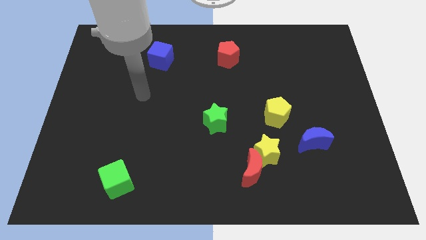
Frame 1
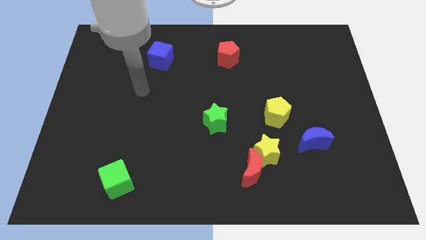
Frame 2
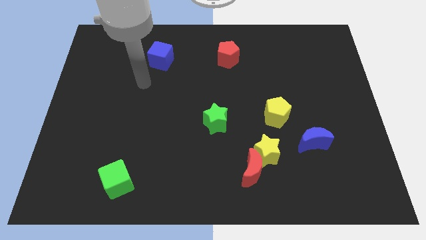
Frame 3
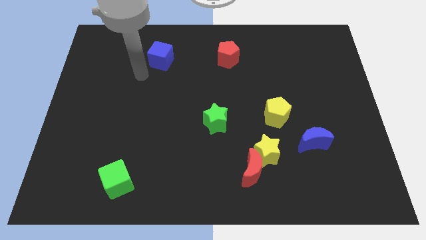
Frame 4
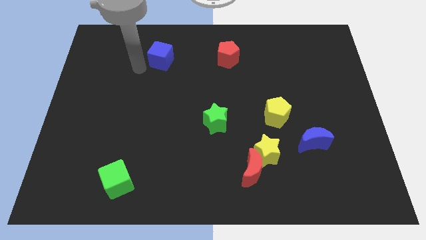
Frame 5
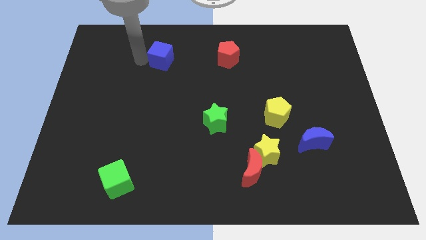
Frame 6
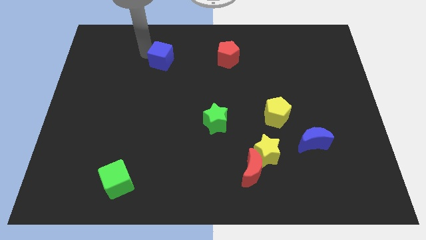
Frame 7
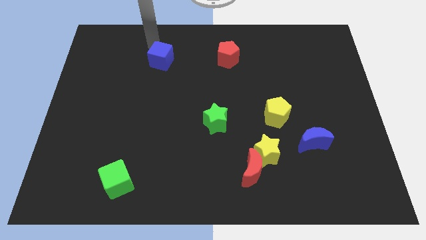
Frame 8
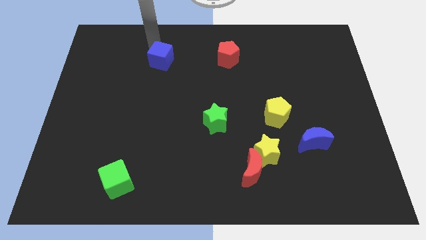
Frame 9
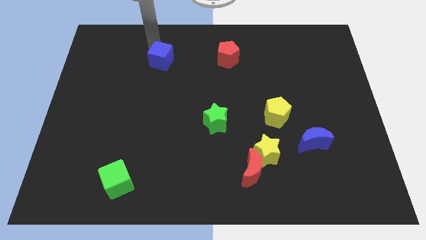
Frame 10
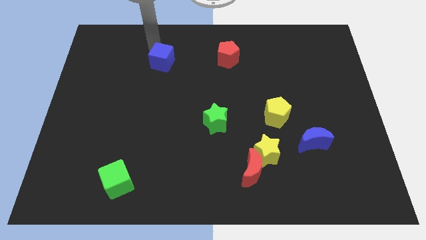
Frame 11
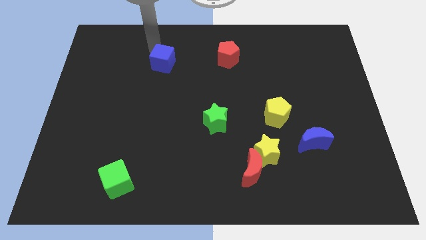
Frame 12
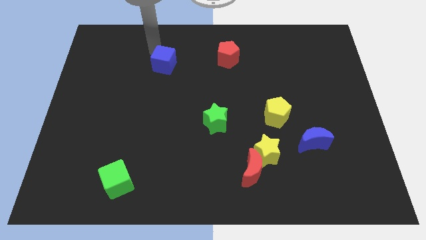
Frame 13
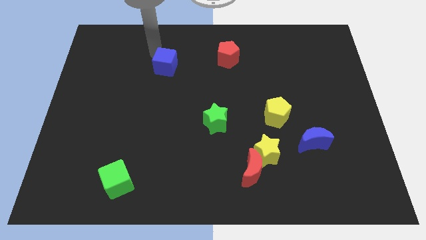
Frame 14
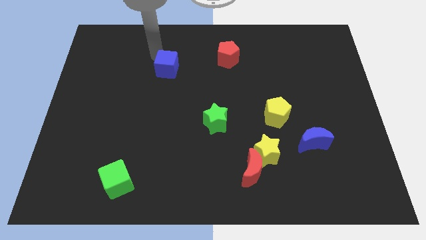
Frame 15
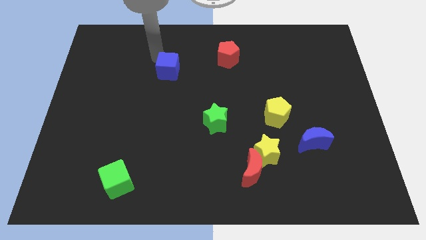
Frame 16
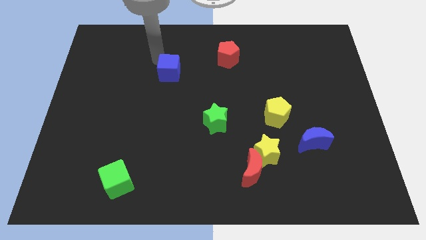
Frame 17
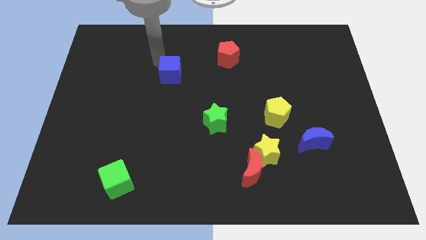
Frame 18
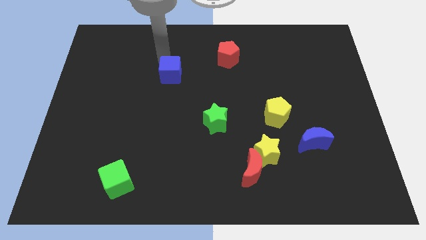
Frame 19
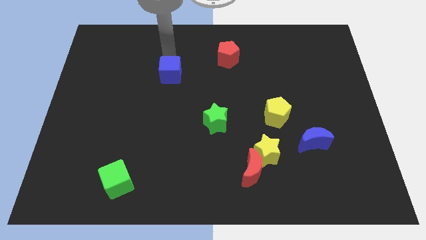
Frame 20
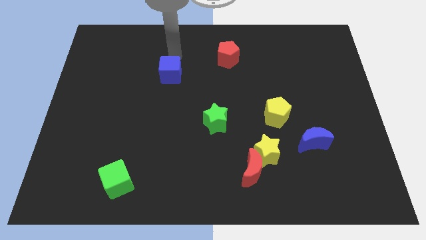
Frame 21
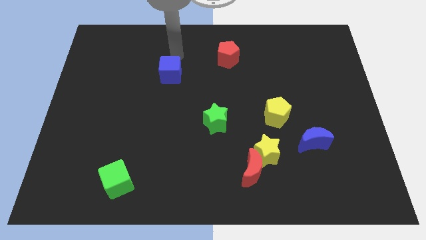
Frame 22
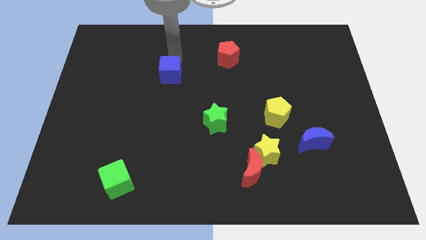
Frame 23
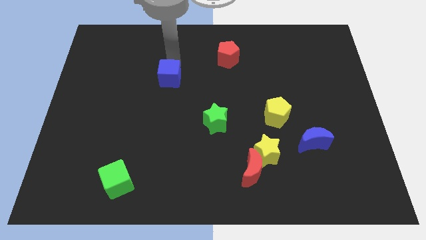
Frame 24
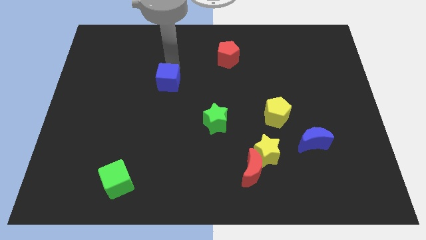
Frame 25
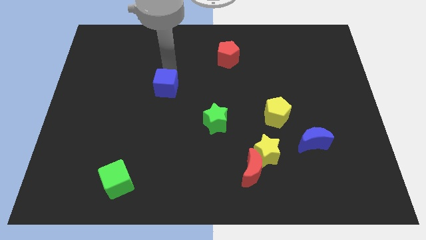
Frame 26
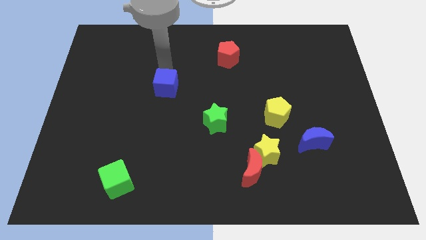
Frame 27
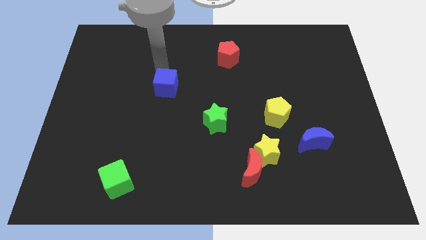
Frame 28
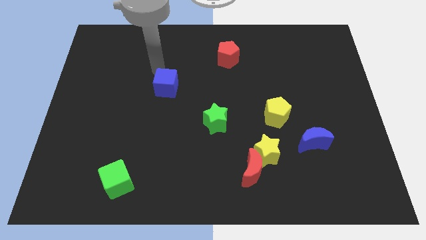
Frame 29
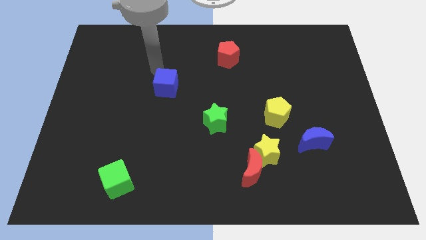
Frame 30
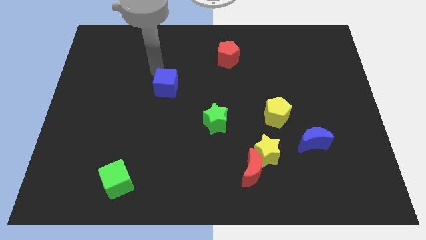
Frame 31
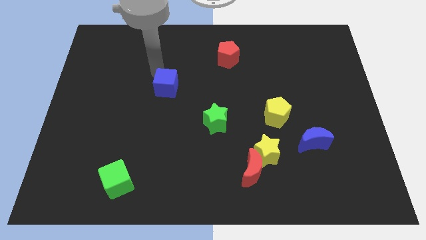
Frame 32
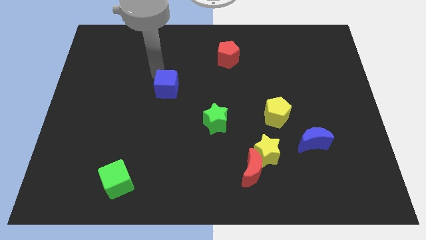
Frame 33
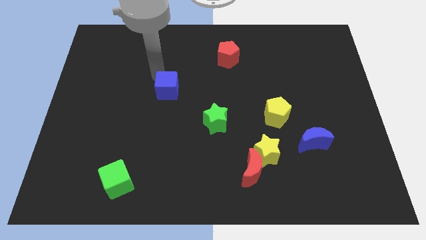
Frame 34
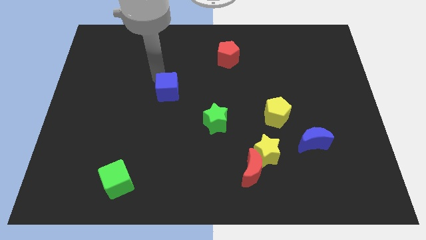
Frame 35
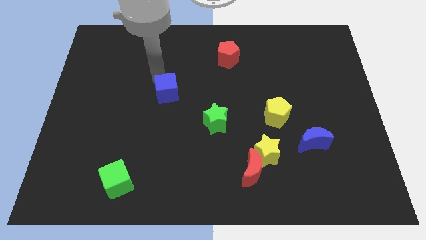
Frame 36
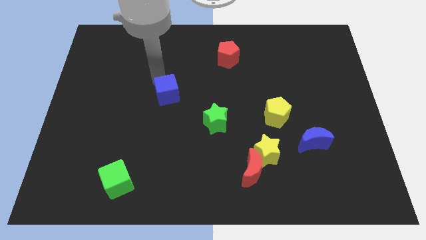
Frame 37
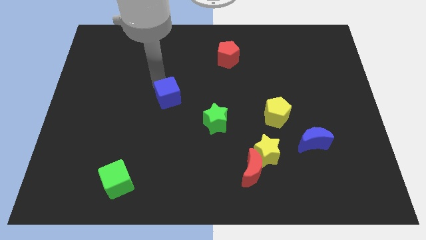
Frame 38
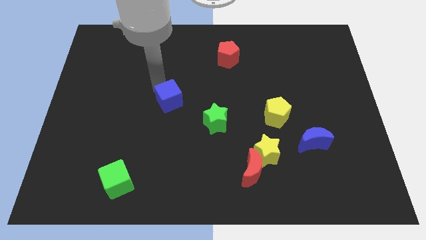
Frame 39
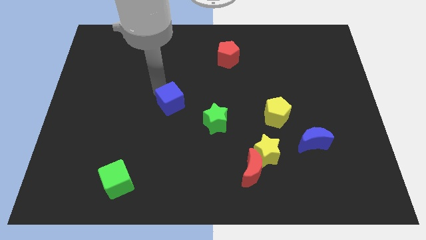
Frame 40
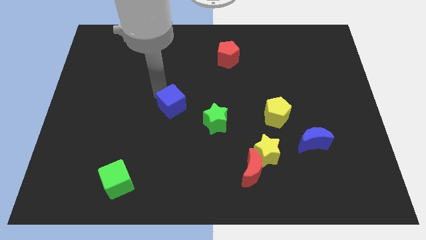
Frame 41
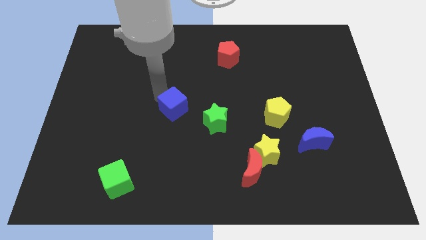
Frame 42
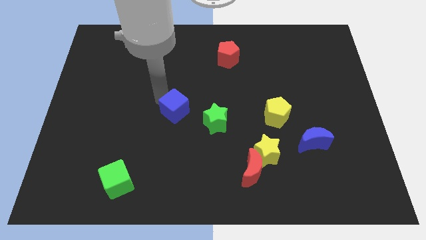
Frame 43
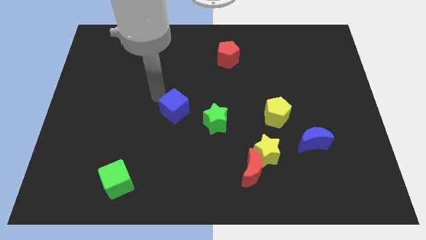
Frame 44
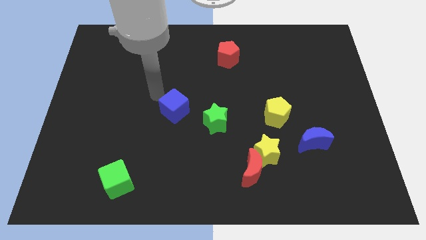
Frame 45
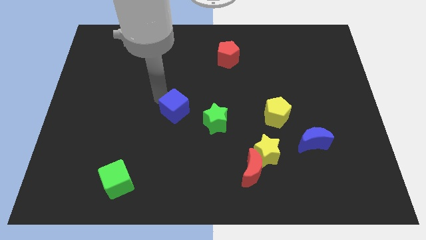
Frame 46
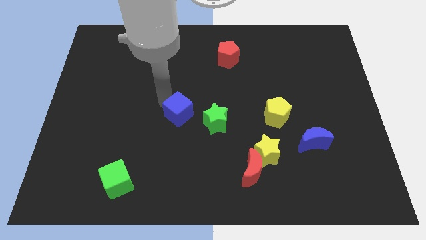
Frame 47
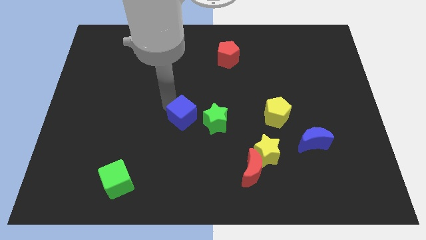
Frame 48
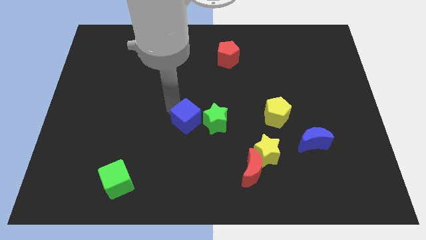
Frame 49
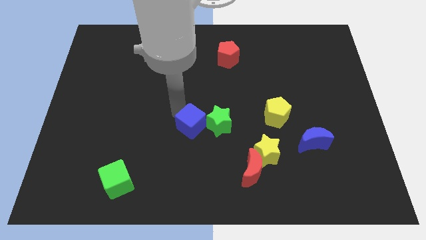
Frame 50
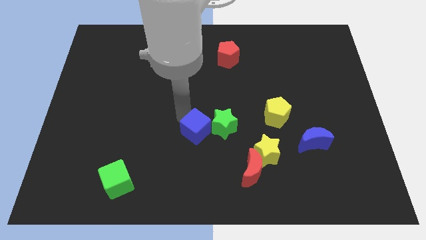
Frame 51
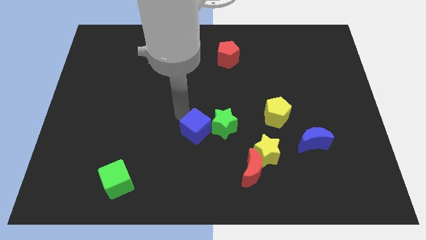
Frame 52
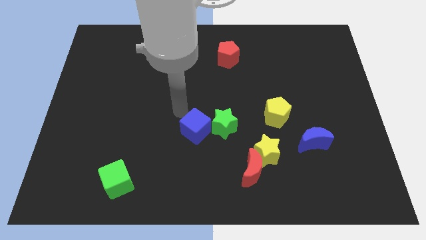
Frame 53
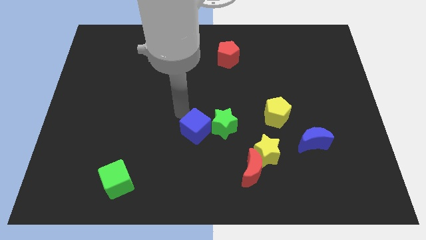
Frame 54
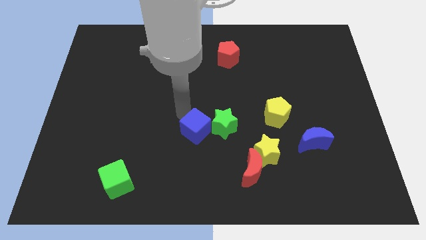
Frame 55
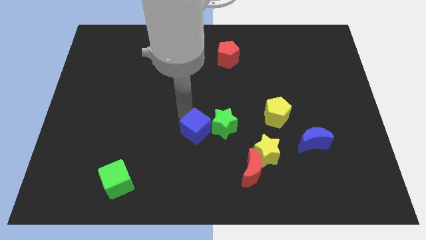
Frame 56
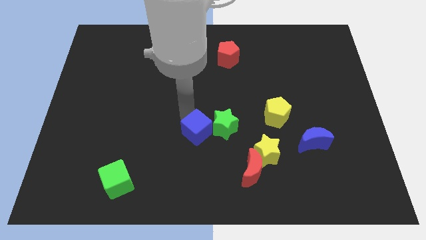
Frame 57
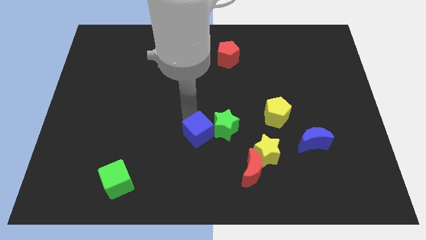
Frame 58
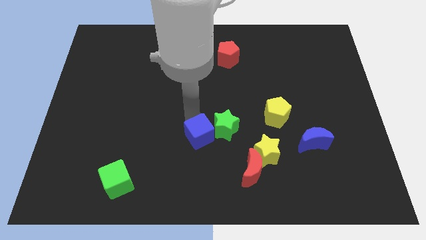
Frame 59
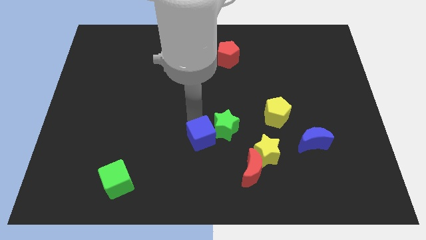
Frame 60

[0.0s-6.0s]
put the blue cube left of the yellow star
